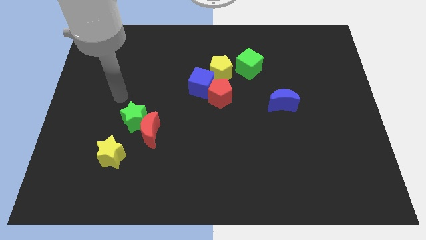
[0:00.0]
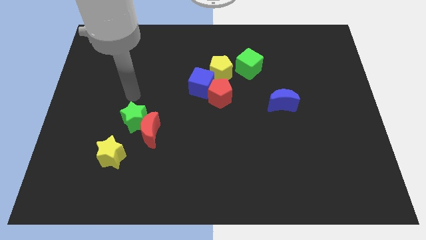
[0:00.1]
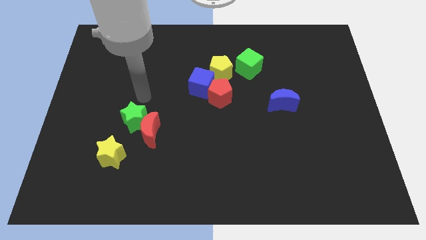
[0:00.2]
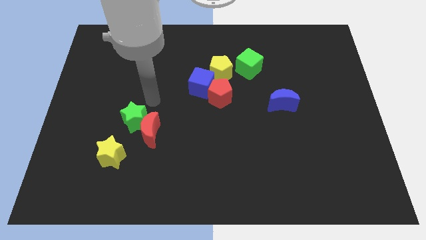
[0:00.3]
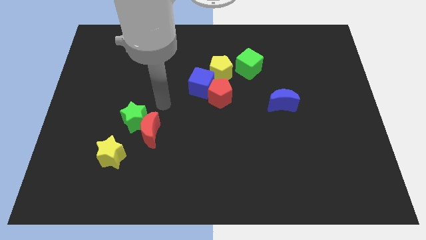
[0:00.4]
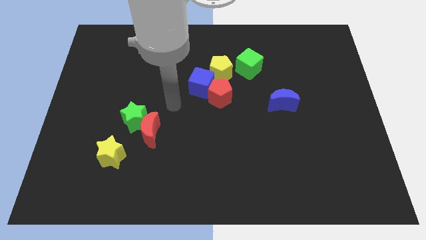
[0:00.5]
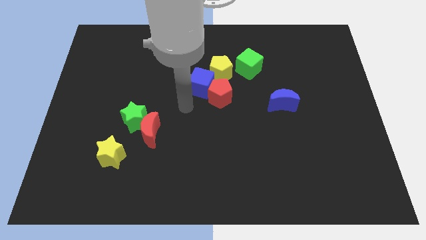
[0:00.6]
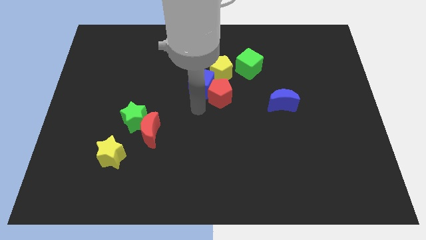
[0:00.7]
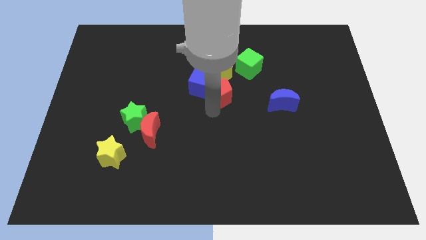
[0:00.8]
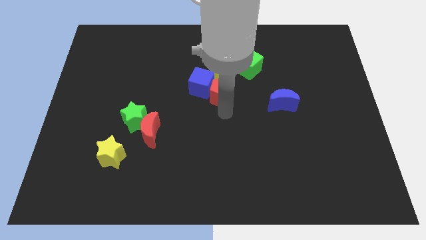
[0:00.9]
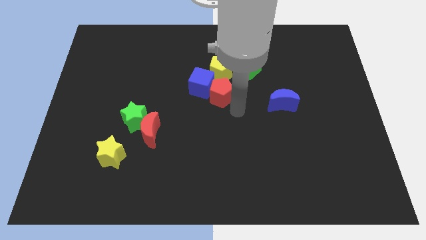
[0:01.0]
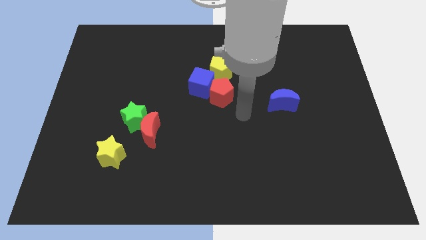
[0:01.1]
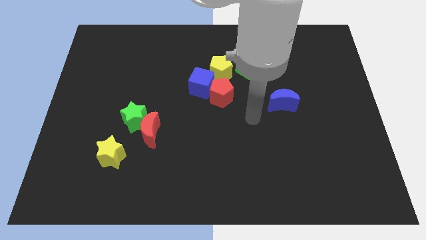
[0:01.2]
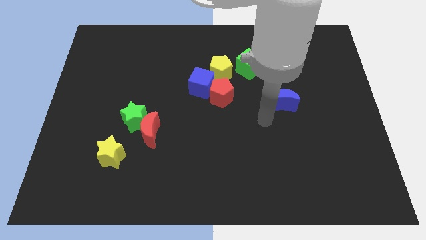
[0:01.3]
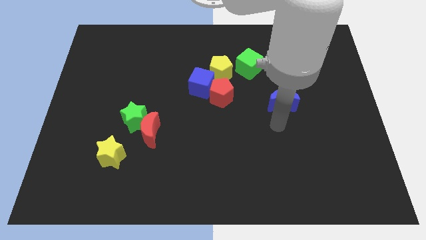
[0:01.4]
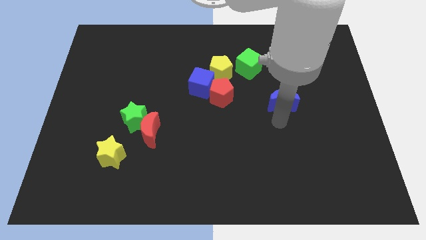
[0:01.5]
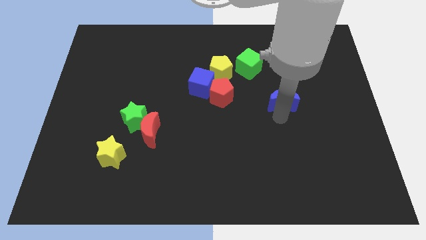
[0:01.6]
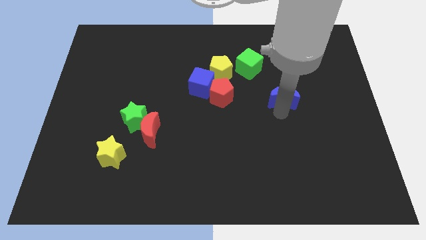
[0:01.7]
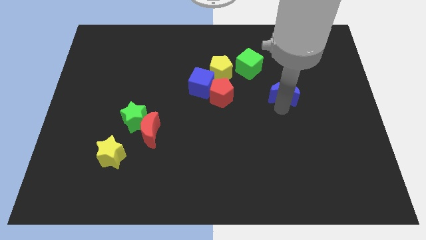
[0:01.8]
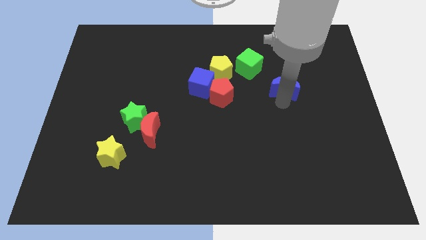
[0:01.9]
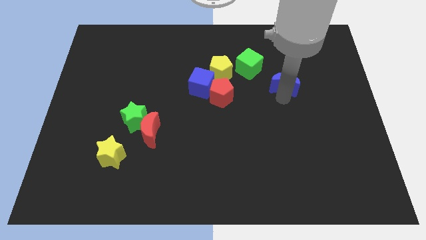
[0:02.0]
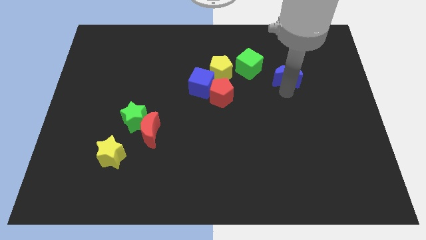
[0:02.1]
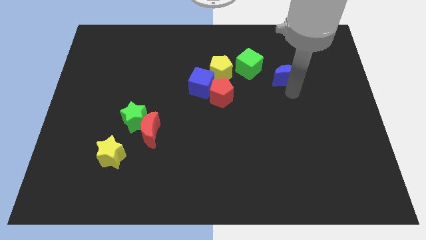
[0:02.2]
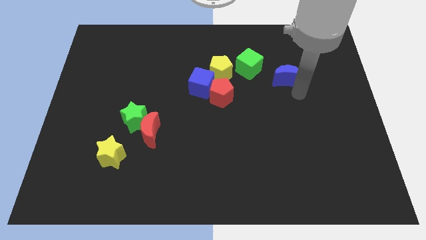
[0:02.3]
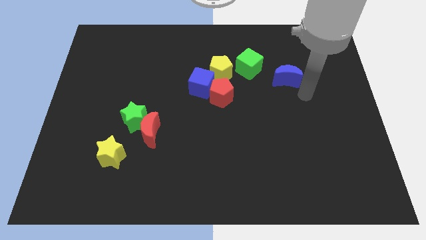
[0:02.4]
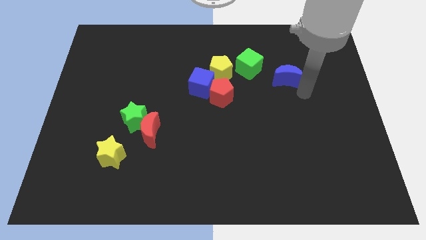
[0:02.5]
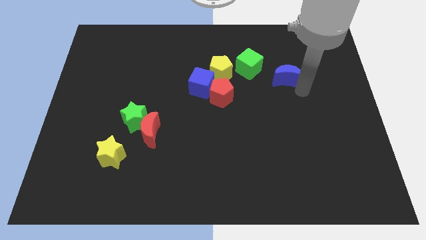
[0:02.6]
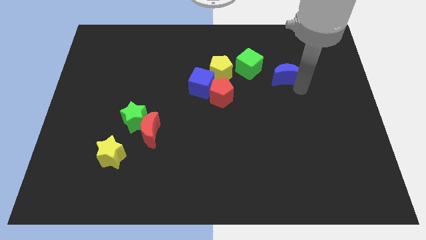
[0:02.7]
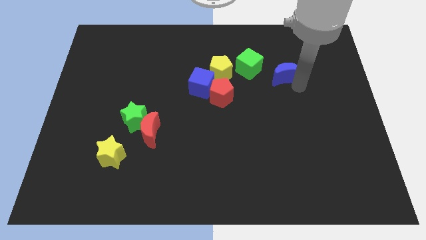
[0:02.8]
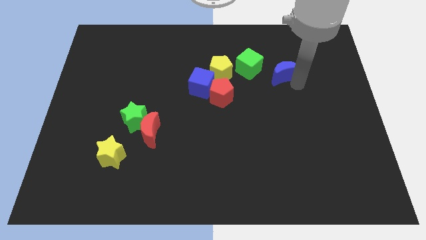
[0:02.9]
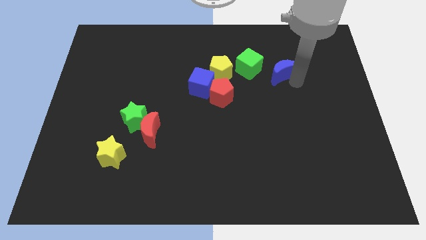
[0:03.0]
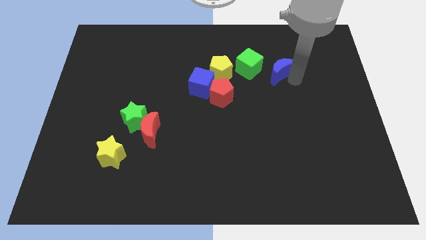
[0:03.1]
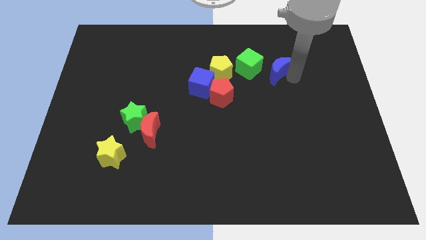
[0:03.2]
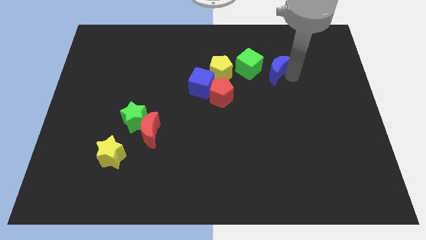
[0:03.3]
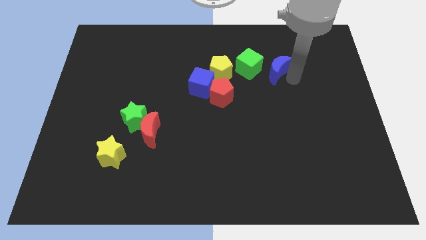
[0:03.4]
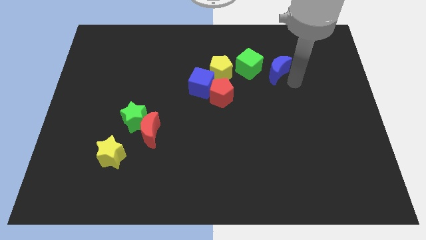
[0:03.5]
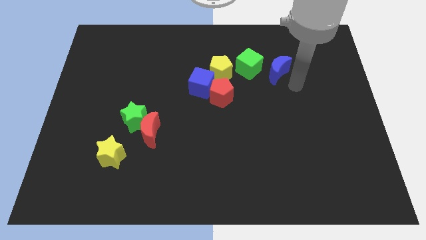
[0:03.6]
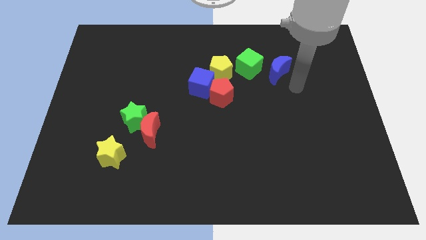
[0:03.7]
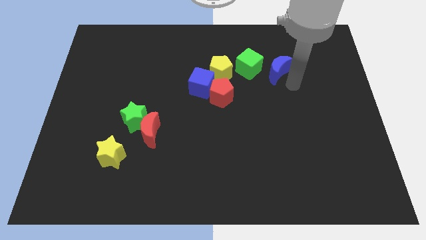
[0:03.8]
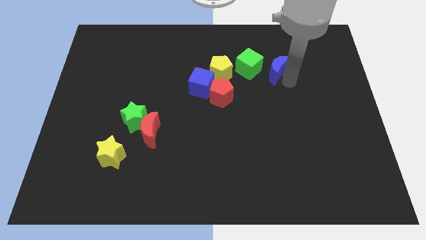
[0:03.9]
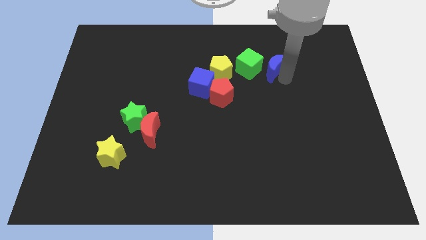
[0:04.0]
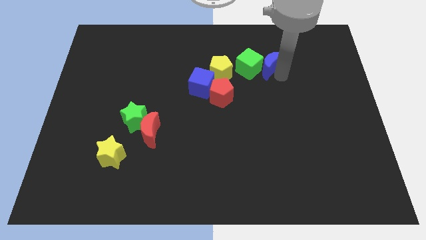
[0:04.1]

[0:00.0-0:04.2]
move the blue moon diagonally up and left a little bit

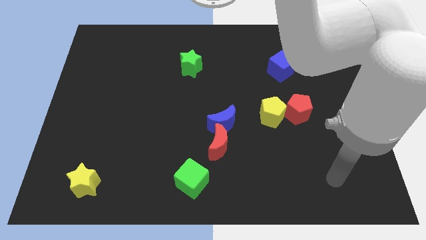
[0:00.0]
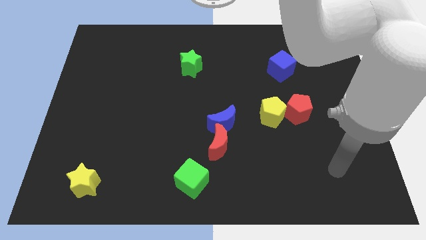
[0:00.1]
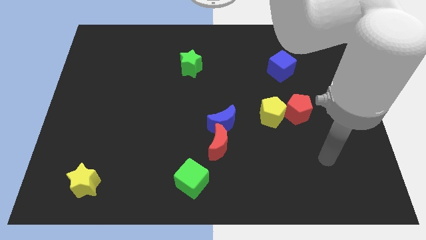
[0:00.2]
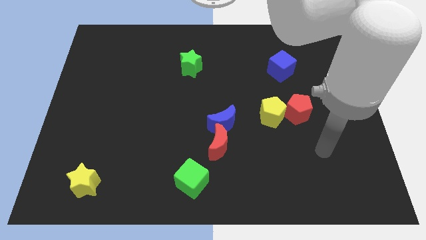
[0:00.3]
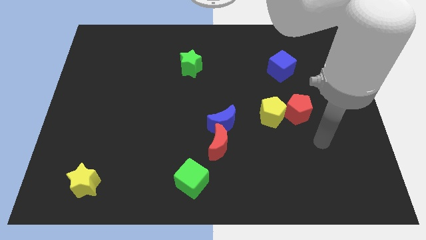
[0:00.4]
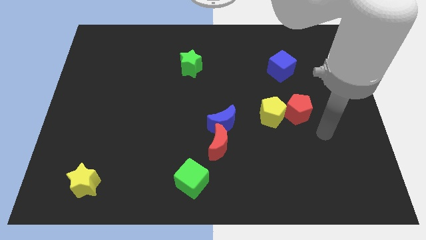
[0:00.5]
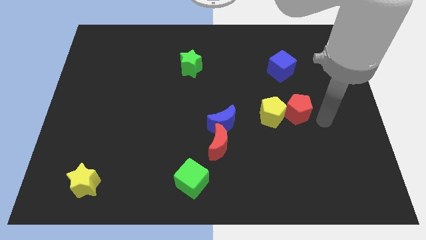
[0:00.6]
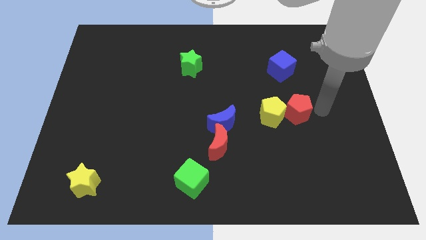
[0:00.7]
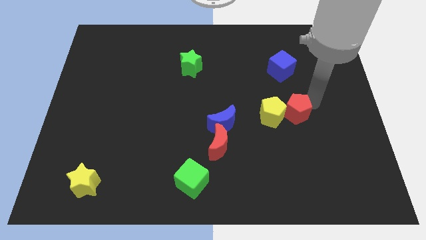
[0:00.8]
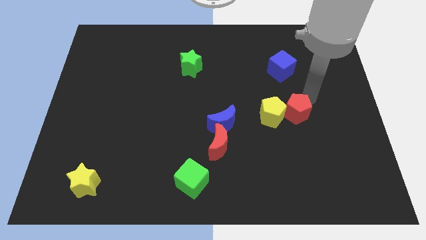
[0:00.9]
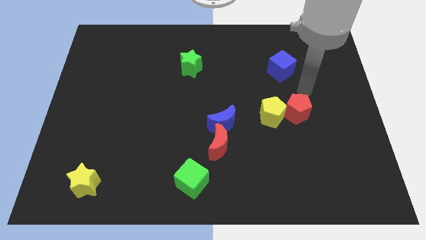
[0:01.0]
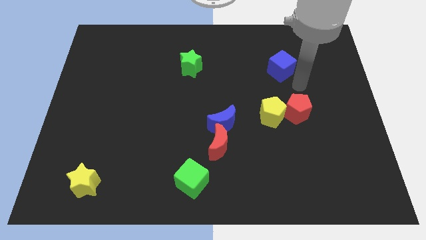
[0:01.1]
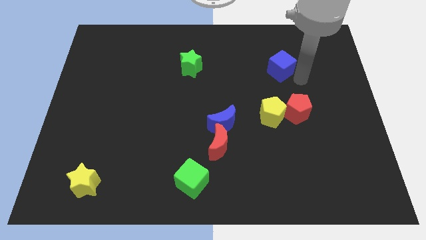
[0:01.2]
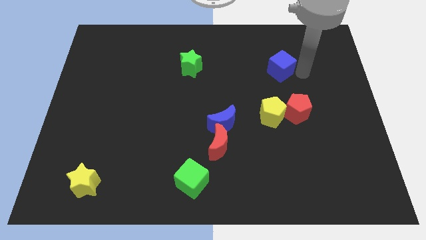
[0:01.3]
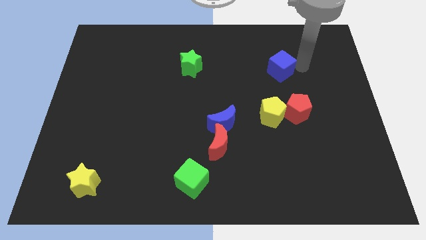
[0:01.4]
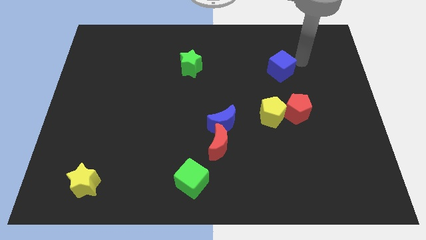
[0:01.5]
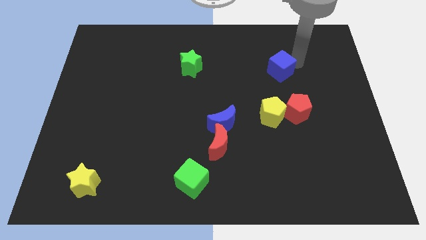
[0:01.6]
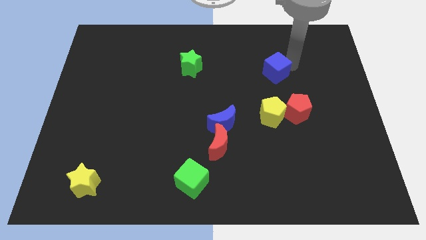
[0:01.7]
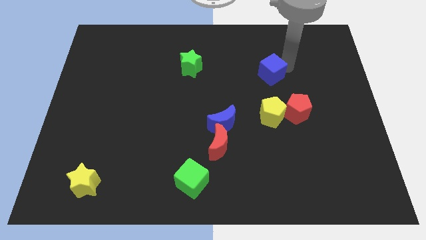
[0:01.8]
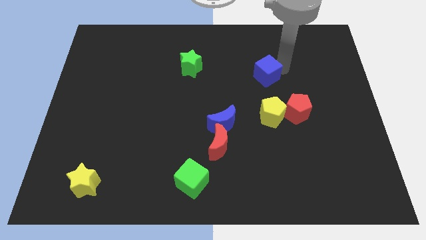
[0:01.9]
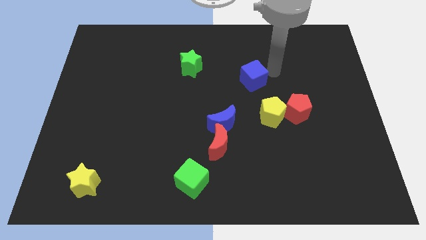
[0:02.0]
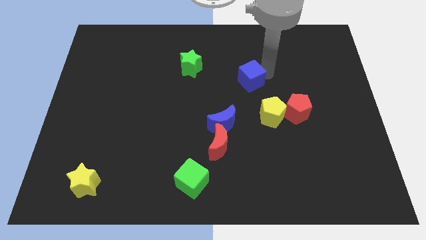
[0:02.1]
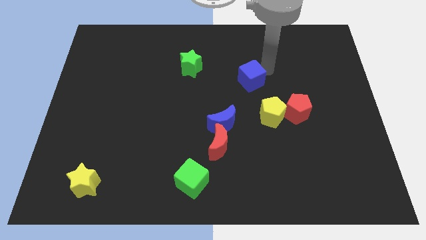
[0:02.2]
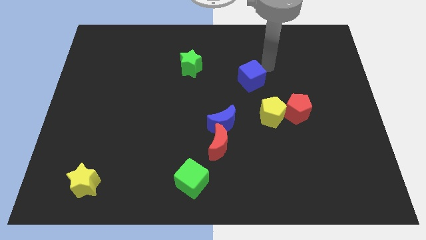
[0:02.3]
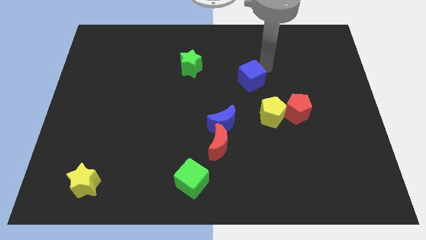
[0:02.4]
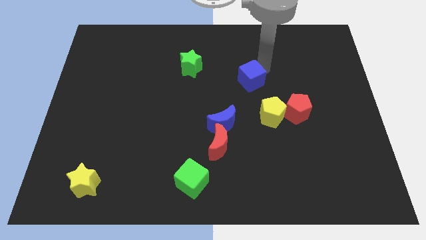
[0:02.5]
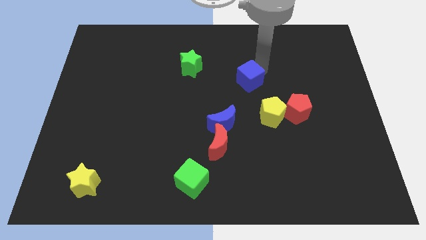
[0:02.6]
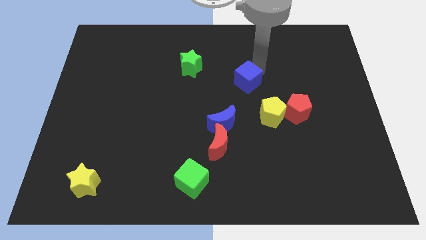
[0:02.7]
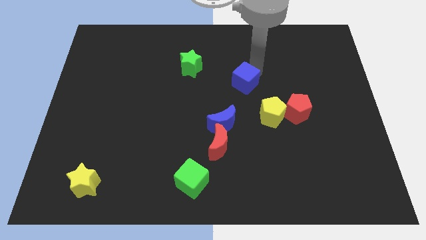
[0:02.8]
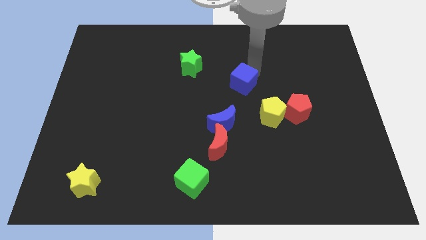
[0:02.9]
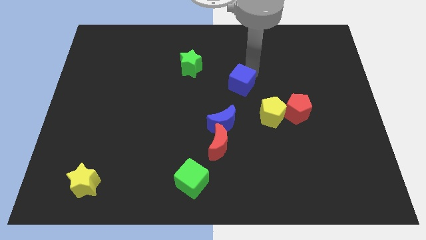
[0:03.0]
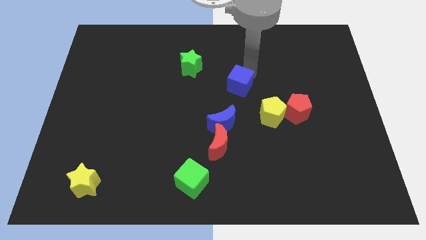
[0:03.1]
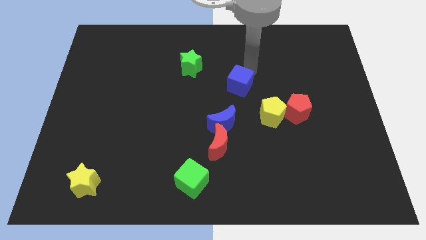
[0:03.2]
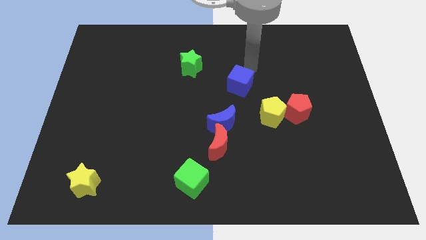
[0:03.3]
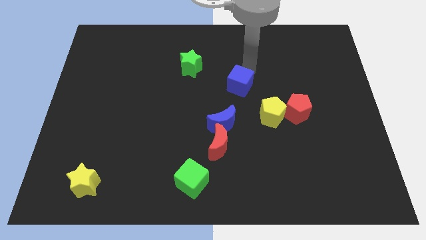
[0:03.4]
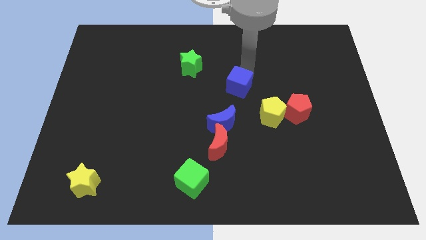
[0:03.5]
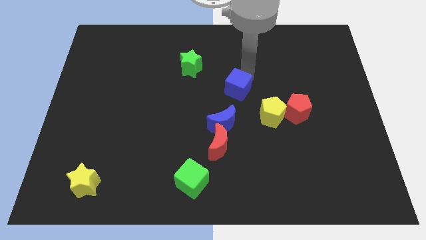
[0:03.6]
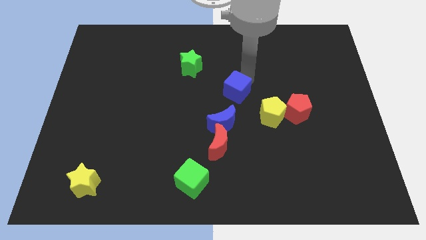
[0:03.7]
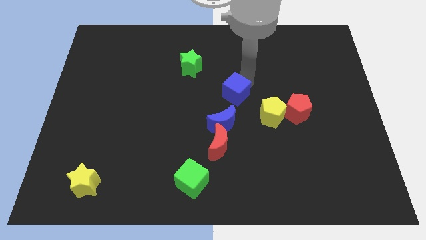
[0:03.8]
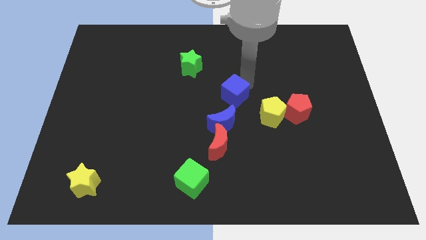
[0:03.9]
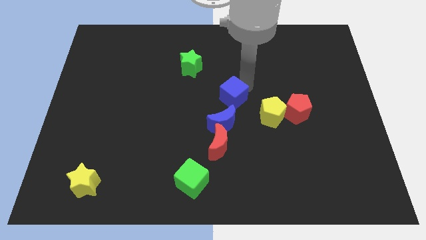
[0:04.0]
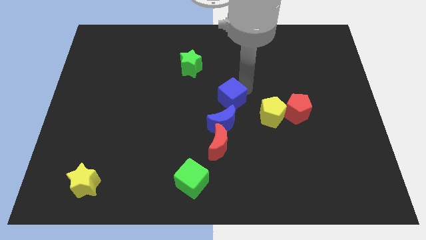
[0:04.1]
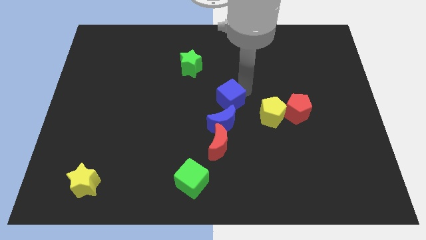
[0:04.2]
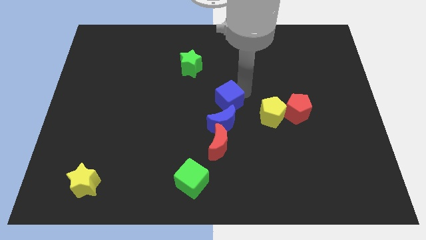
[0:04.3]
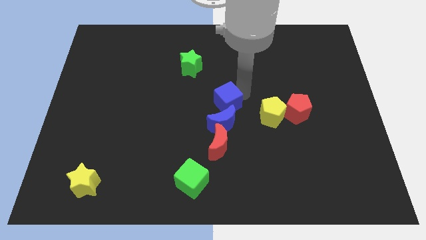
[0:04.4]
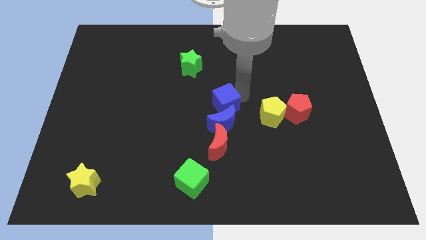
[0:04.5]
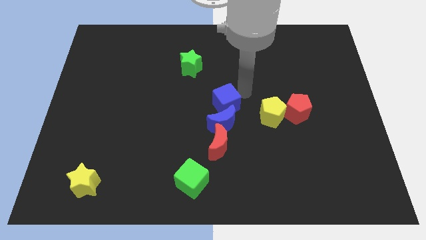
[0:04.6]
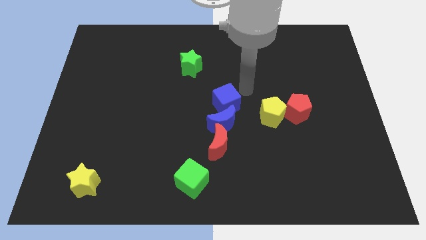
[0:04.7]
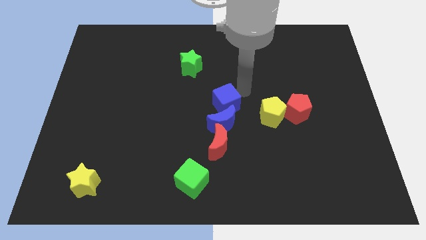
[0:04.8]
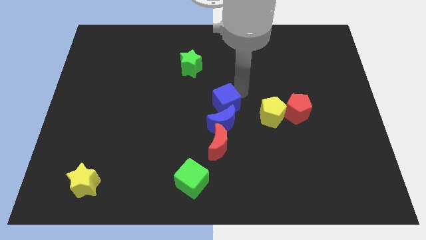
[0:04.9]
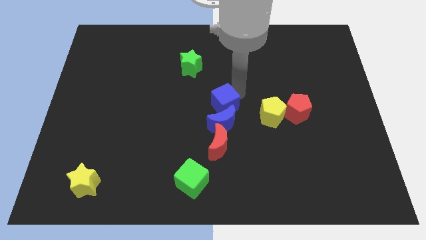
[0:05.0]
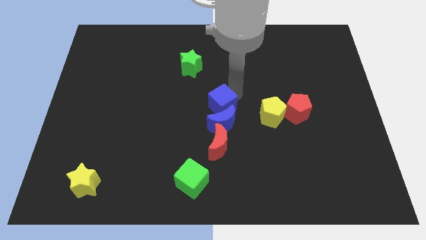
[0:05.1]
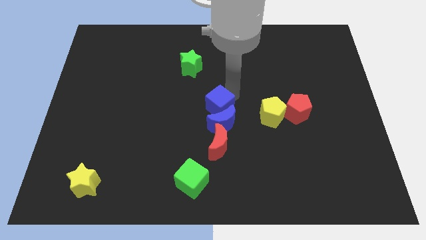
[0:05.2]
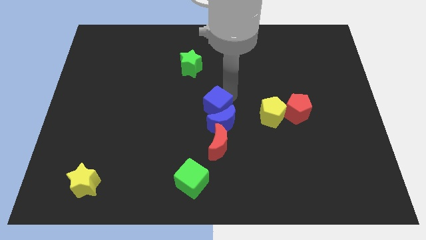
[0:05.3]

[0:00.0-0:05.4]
move the blue cube downwards and to the left diagonally
